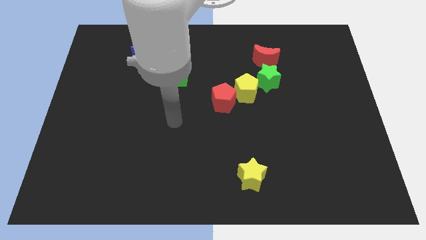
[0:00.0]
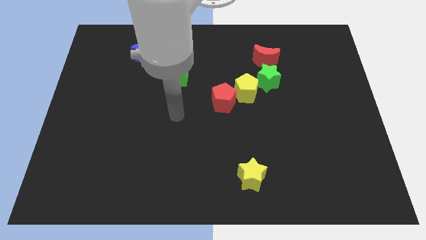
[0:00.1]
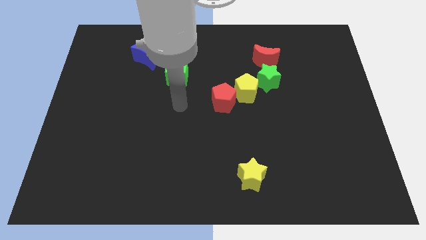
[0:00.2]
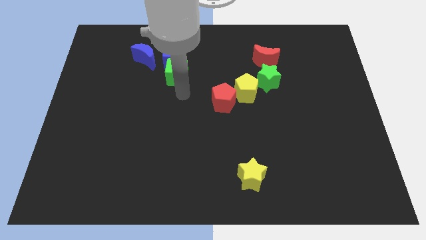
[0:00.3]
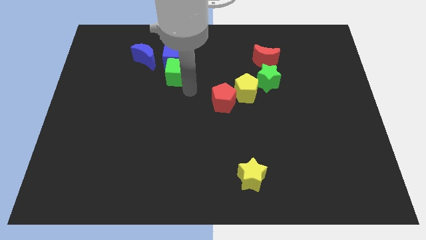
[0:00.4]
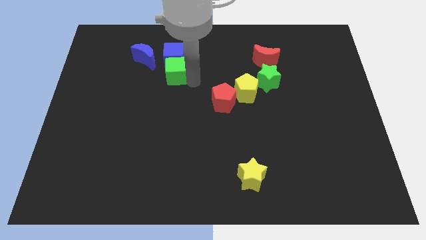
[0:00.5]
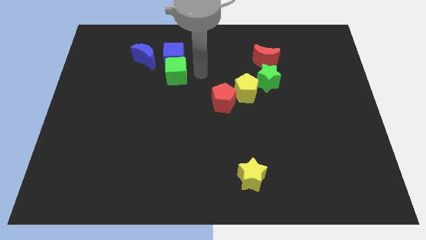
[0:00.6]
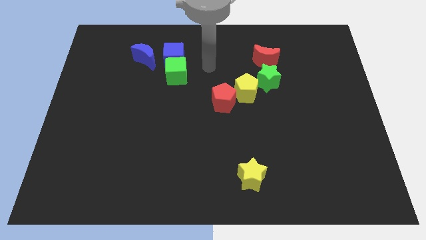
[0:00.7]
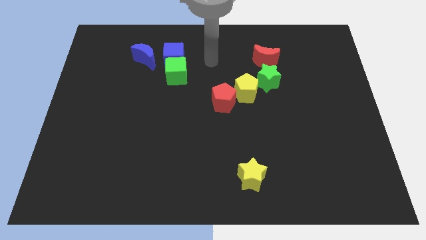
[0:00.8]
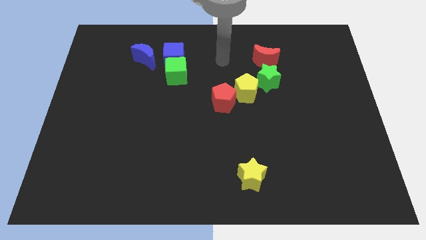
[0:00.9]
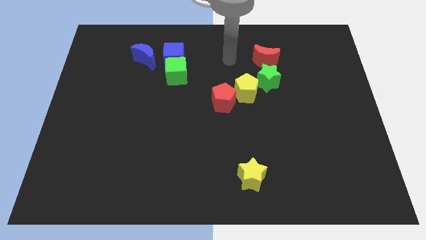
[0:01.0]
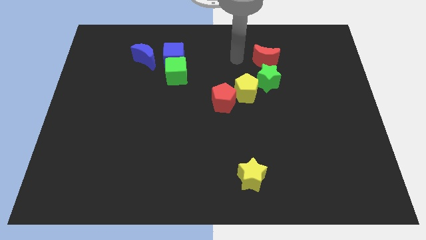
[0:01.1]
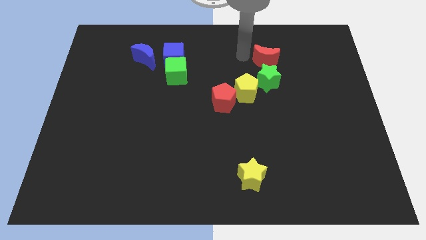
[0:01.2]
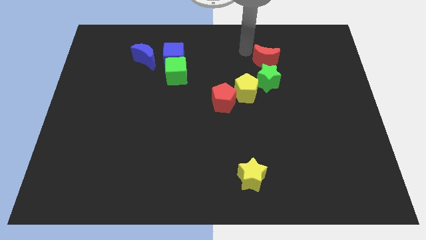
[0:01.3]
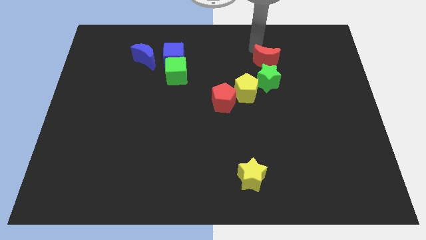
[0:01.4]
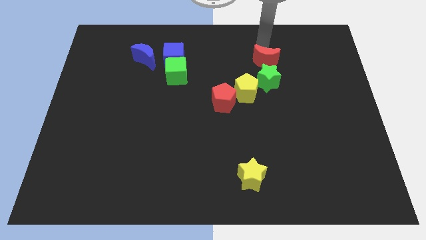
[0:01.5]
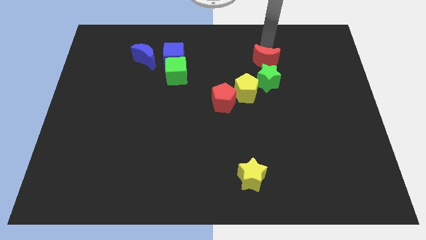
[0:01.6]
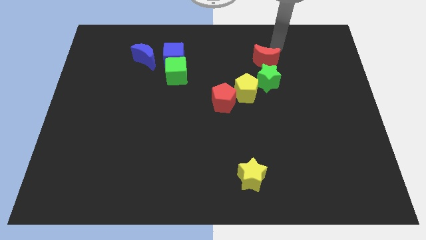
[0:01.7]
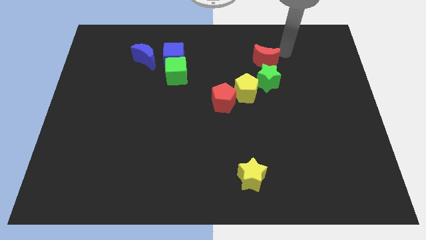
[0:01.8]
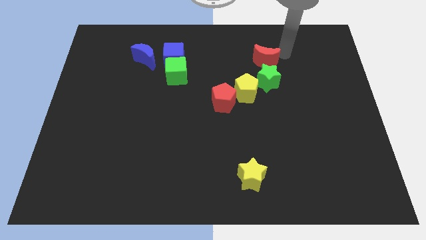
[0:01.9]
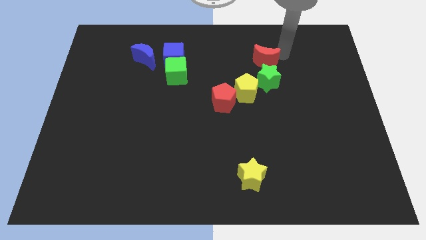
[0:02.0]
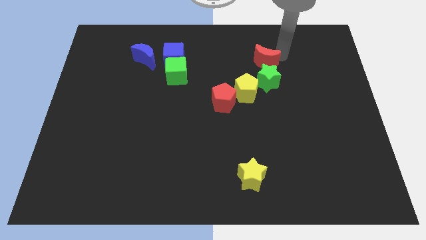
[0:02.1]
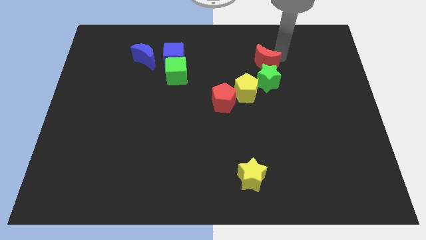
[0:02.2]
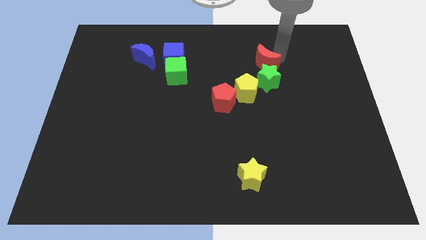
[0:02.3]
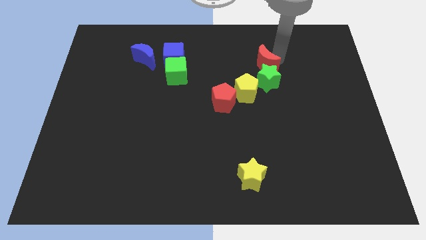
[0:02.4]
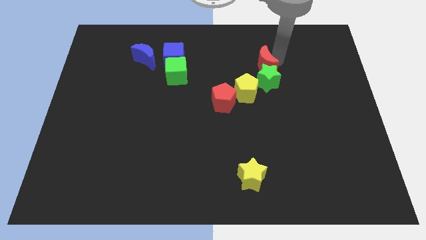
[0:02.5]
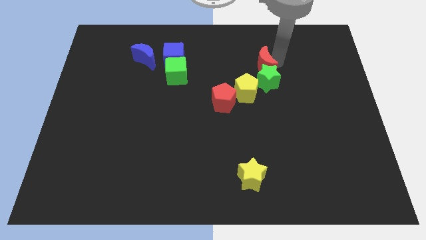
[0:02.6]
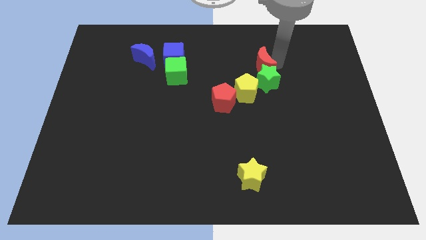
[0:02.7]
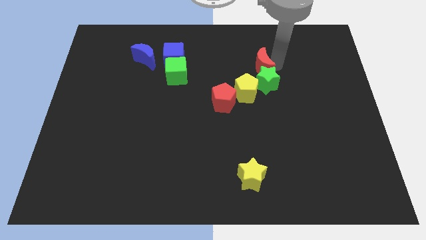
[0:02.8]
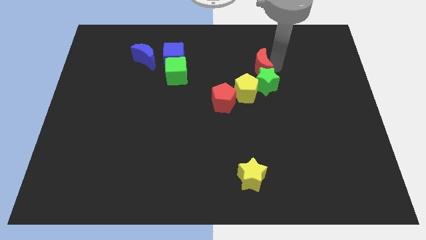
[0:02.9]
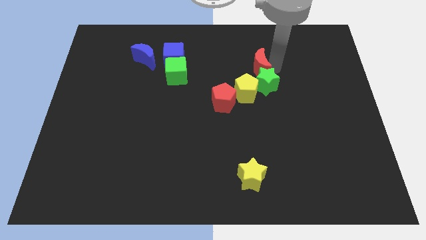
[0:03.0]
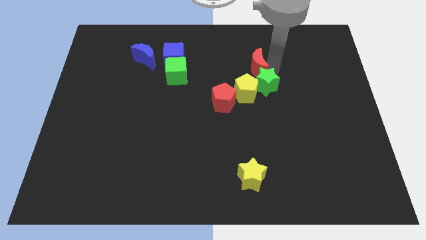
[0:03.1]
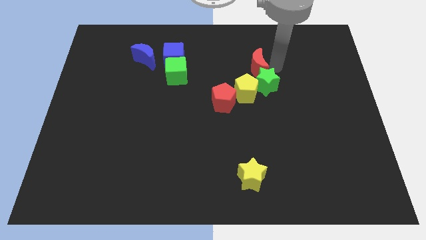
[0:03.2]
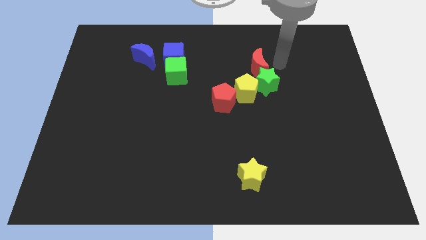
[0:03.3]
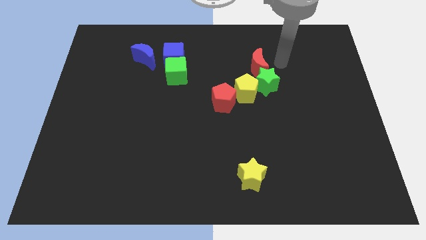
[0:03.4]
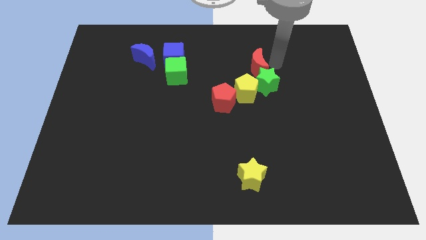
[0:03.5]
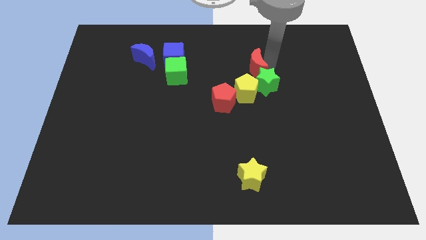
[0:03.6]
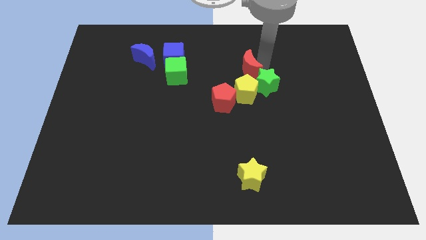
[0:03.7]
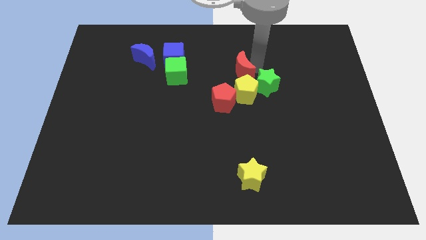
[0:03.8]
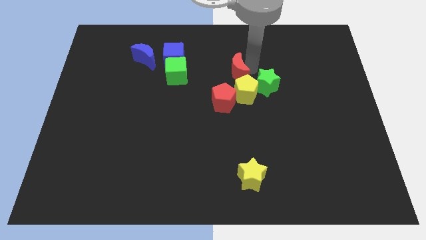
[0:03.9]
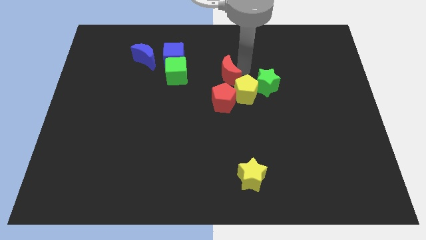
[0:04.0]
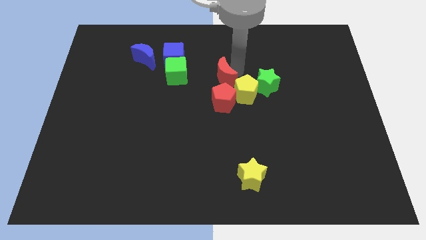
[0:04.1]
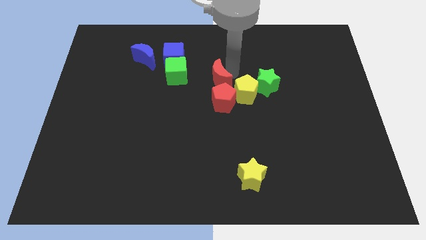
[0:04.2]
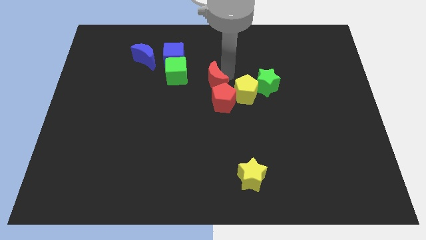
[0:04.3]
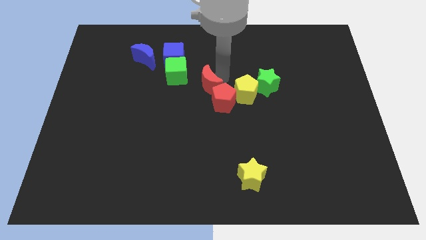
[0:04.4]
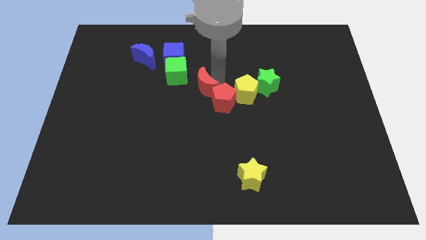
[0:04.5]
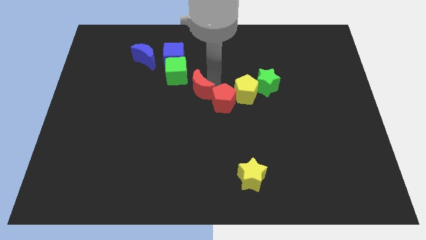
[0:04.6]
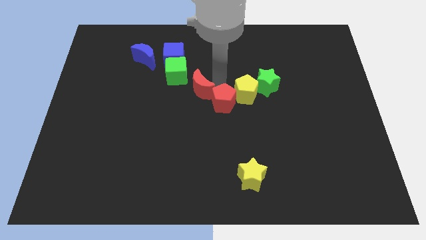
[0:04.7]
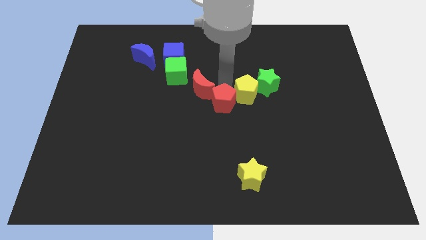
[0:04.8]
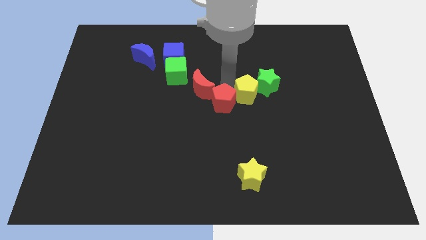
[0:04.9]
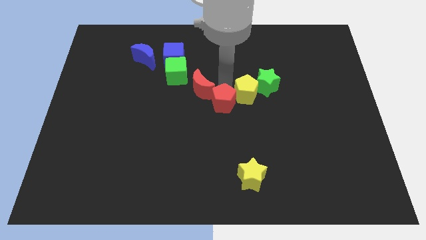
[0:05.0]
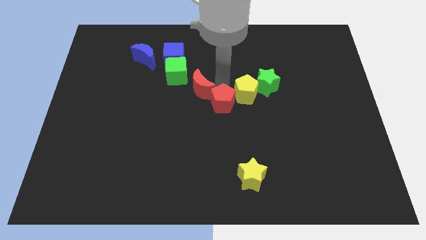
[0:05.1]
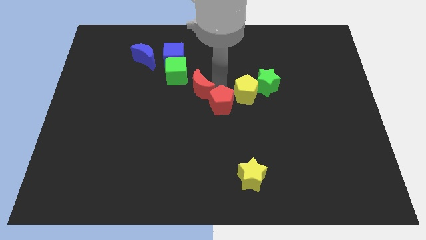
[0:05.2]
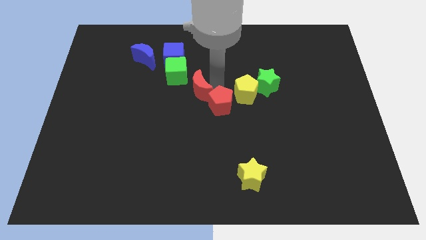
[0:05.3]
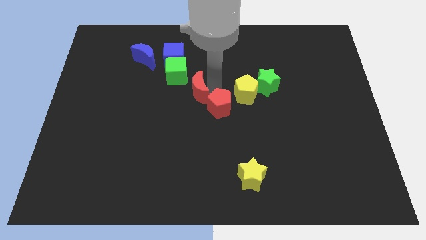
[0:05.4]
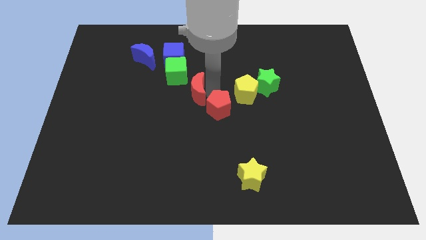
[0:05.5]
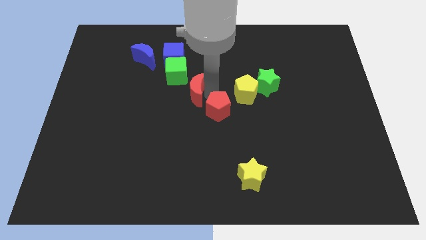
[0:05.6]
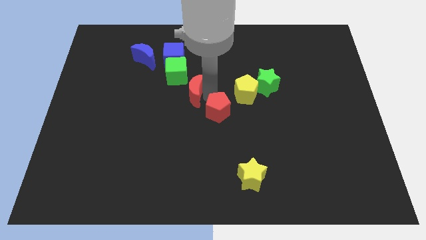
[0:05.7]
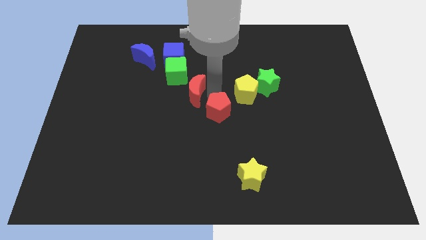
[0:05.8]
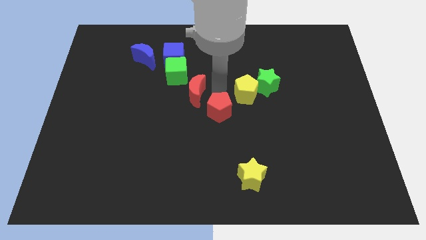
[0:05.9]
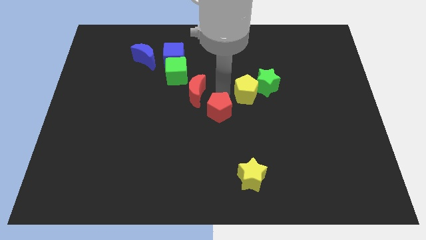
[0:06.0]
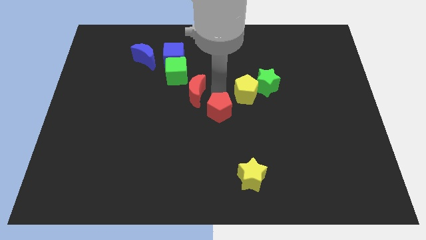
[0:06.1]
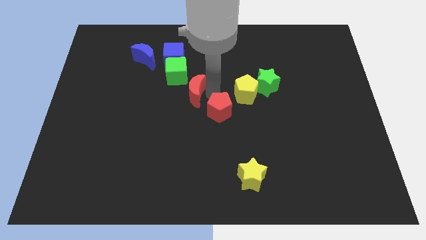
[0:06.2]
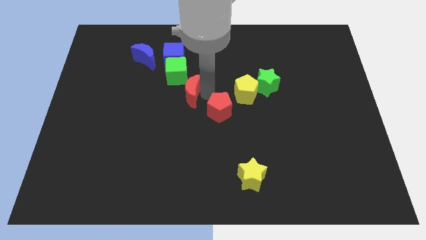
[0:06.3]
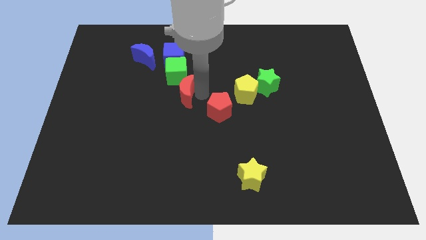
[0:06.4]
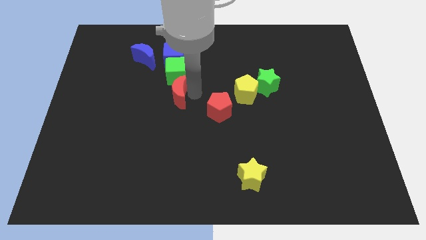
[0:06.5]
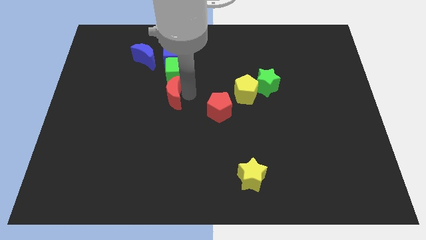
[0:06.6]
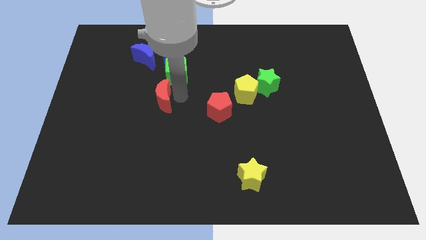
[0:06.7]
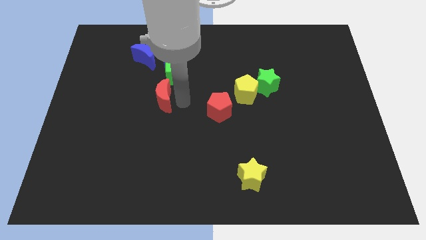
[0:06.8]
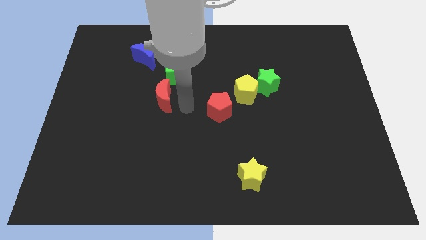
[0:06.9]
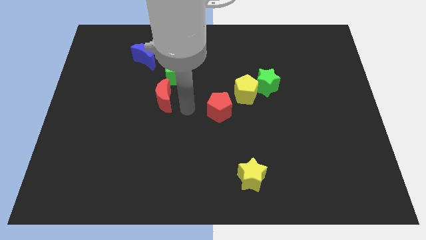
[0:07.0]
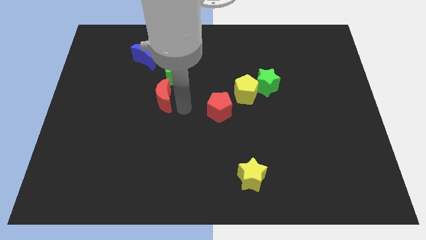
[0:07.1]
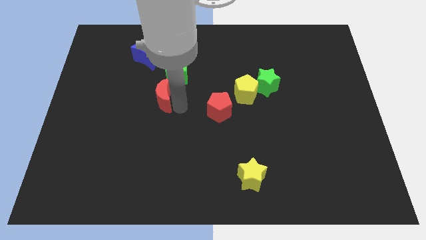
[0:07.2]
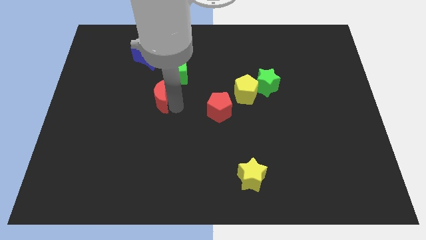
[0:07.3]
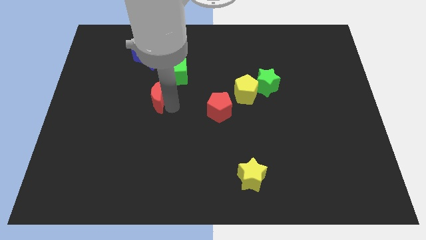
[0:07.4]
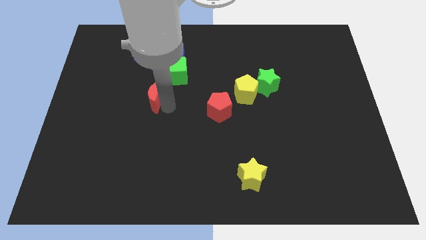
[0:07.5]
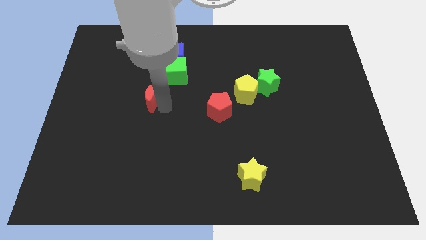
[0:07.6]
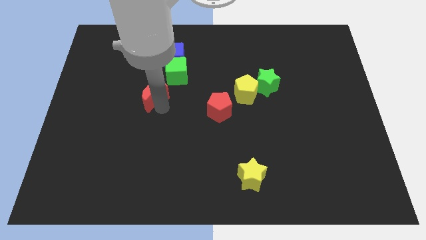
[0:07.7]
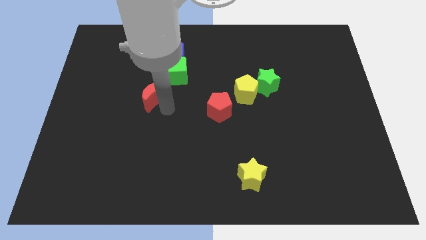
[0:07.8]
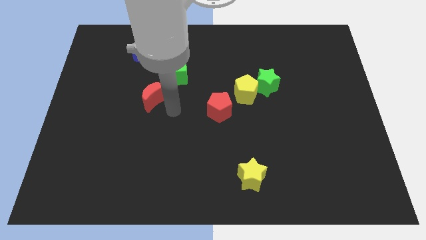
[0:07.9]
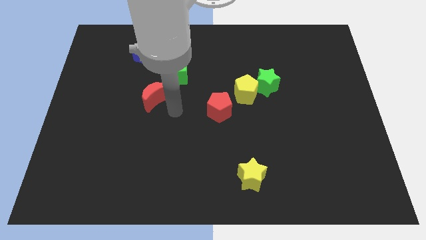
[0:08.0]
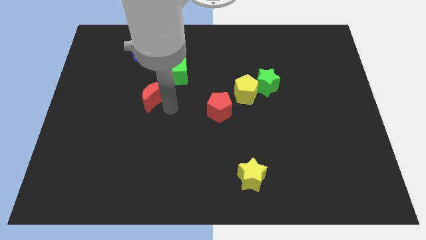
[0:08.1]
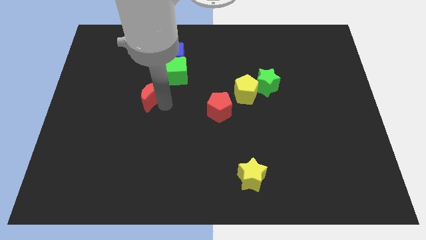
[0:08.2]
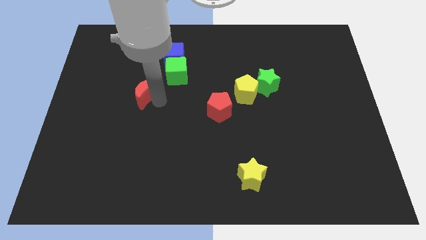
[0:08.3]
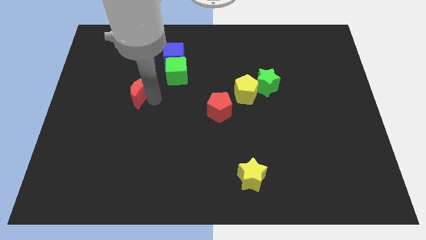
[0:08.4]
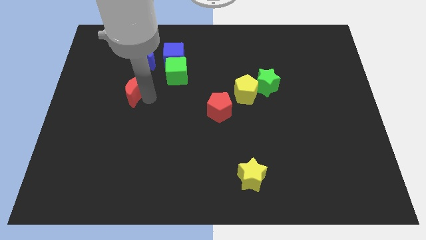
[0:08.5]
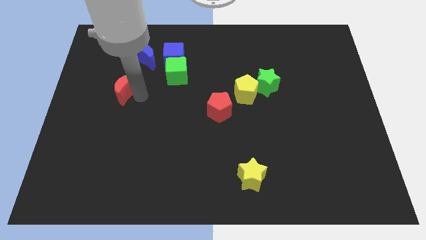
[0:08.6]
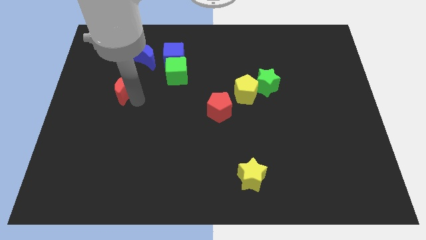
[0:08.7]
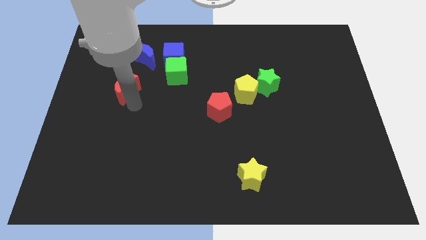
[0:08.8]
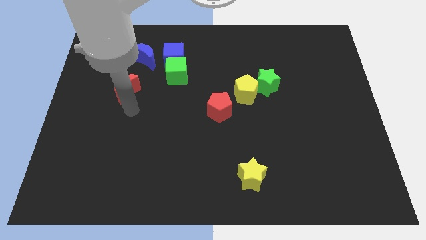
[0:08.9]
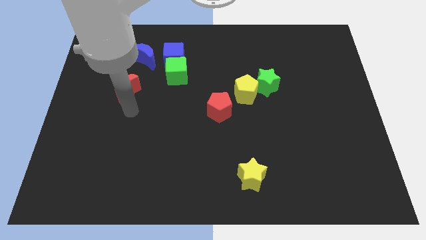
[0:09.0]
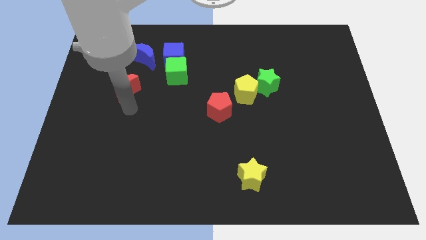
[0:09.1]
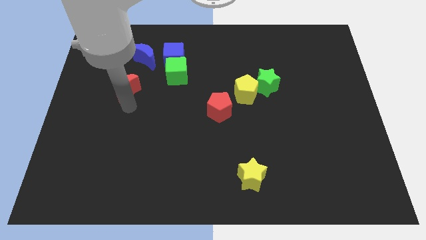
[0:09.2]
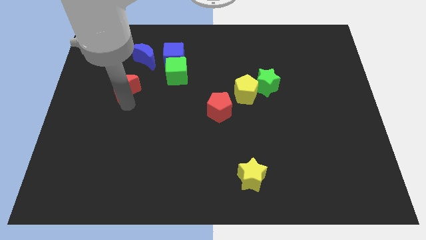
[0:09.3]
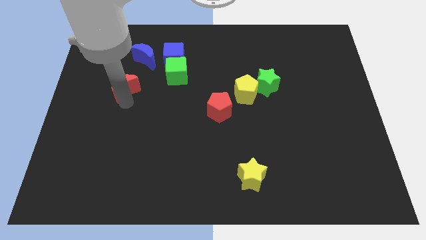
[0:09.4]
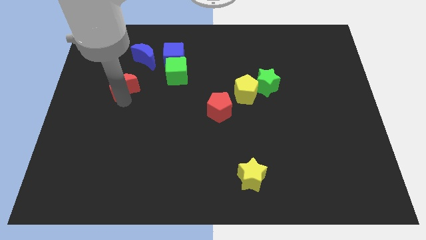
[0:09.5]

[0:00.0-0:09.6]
move the red moon diagonally down and to the left of the blue moon
